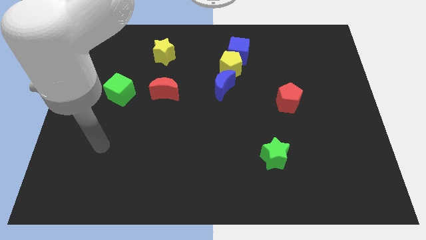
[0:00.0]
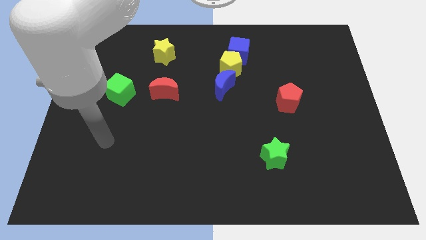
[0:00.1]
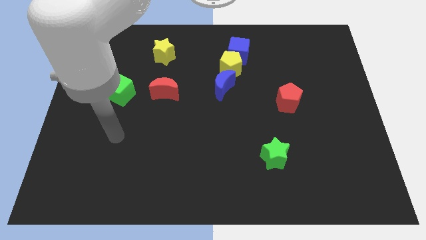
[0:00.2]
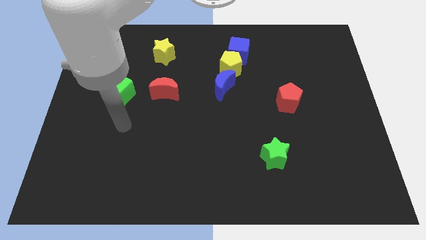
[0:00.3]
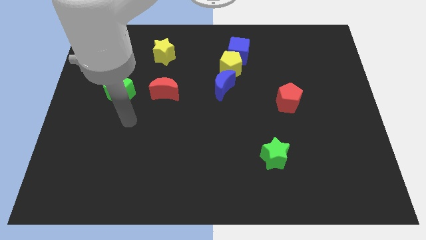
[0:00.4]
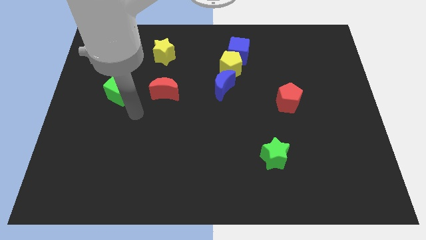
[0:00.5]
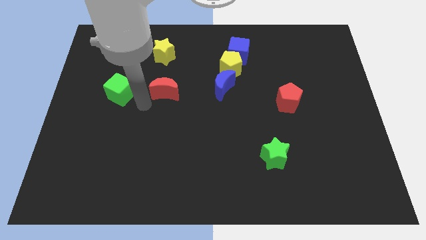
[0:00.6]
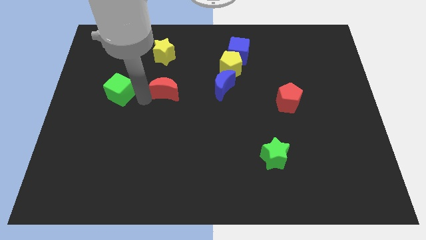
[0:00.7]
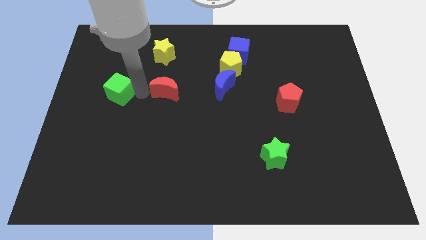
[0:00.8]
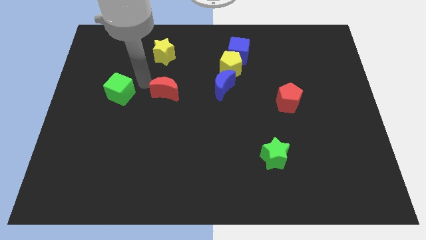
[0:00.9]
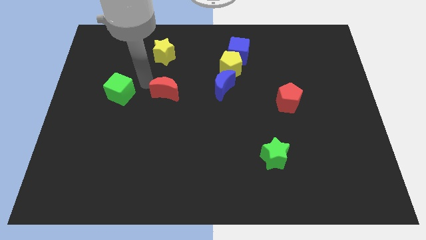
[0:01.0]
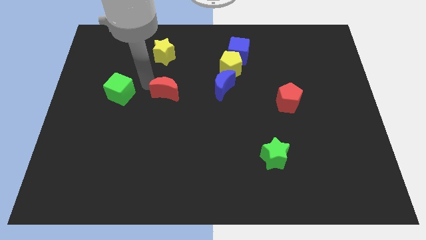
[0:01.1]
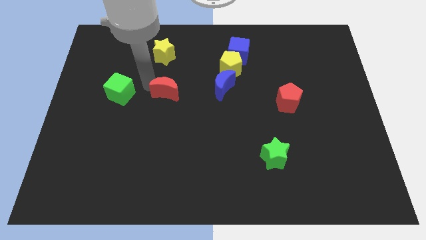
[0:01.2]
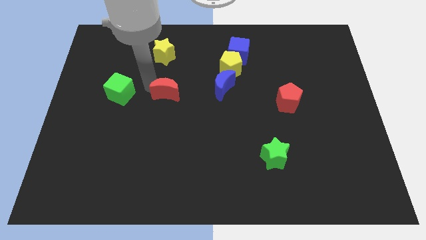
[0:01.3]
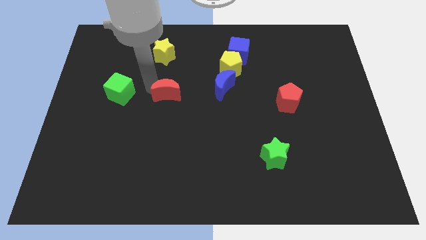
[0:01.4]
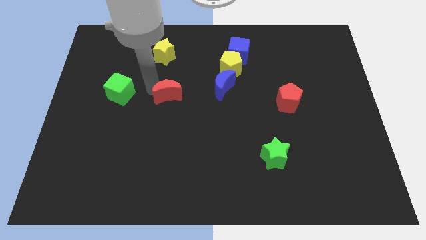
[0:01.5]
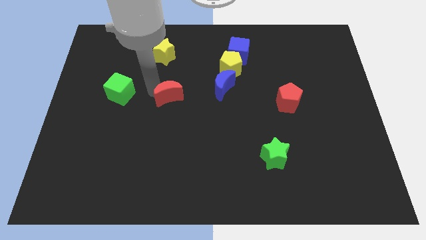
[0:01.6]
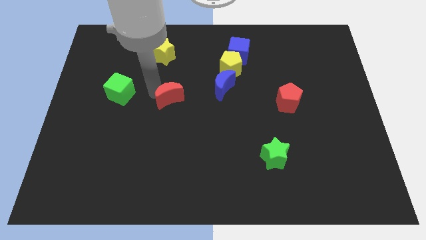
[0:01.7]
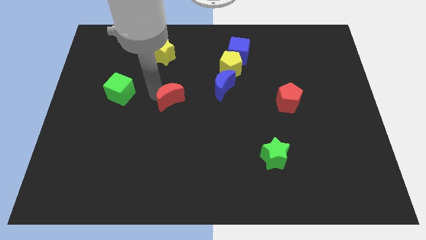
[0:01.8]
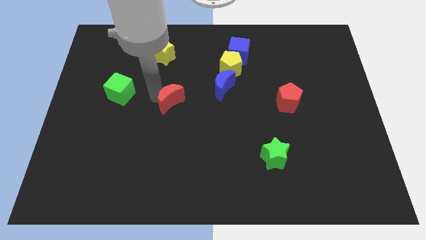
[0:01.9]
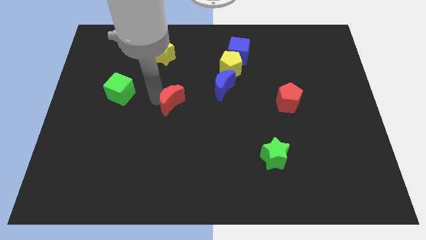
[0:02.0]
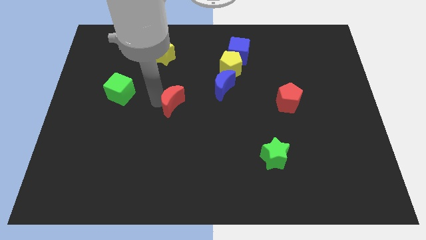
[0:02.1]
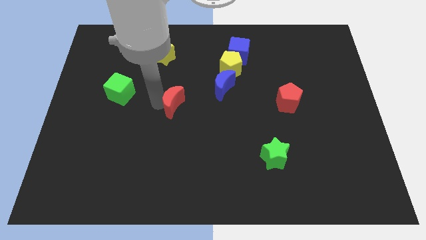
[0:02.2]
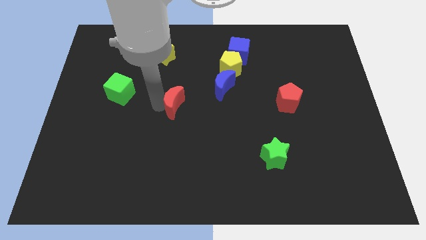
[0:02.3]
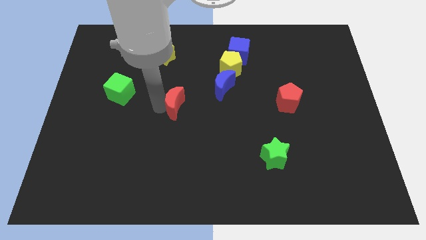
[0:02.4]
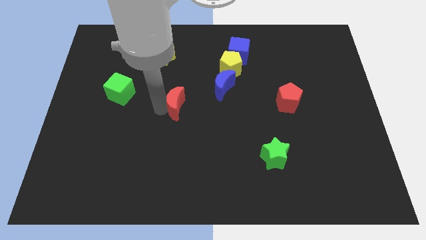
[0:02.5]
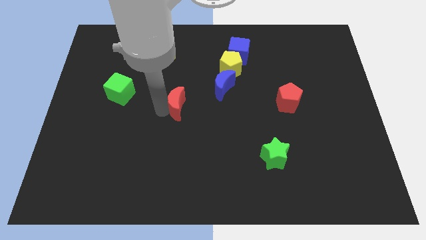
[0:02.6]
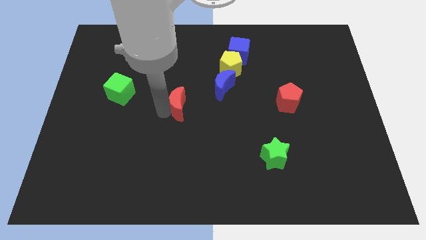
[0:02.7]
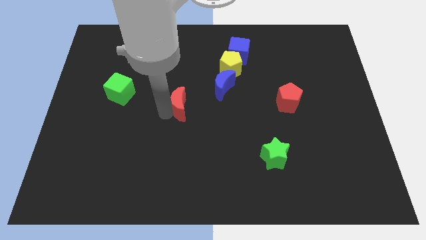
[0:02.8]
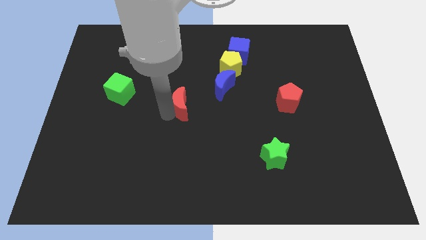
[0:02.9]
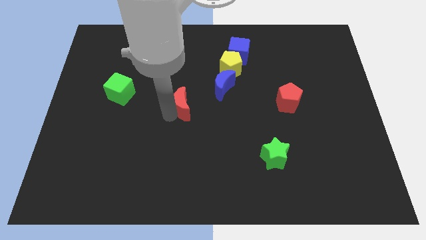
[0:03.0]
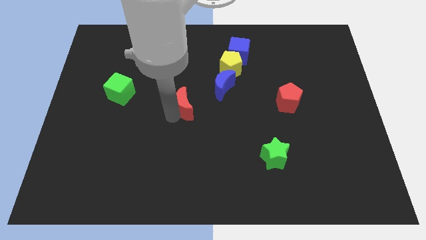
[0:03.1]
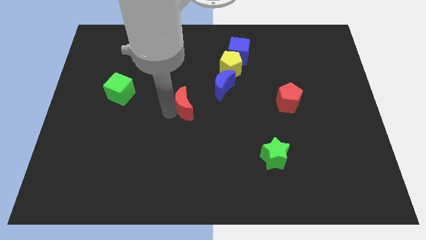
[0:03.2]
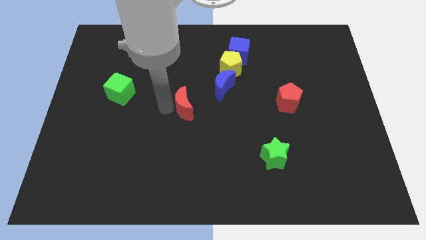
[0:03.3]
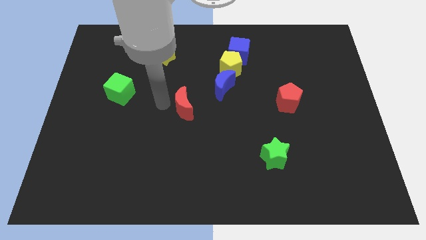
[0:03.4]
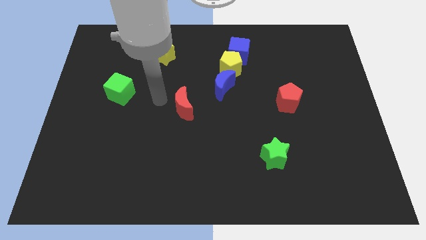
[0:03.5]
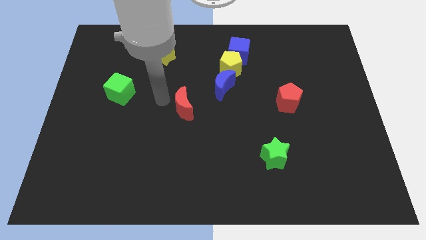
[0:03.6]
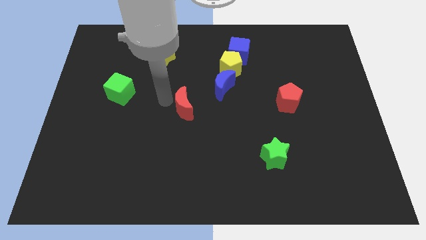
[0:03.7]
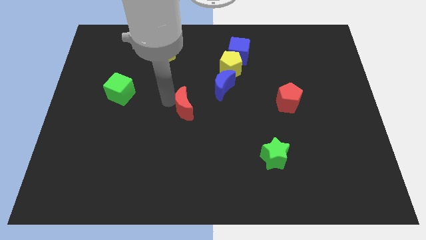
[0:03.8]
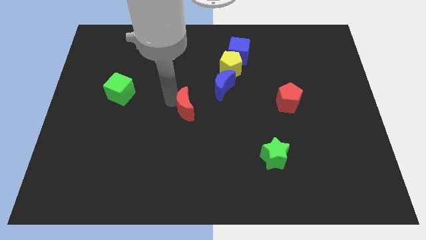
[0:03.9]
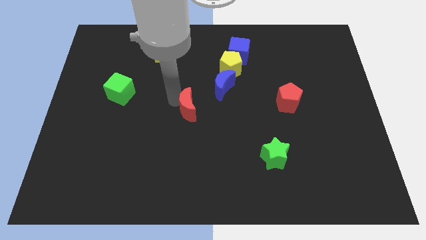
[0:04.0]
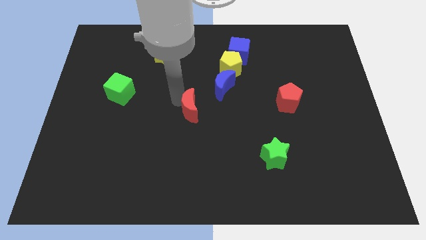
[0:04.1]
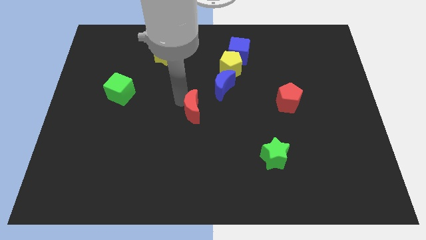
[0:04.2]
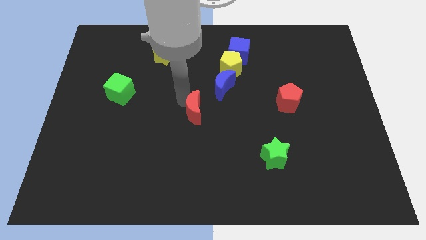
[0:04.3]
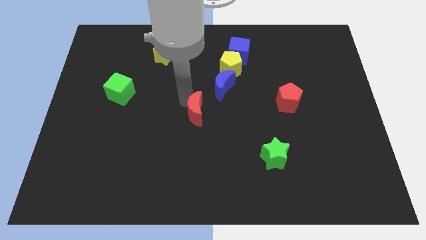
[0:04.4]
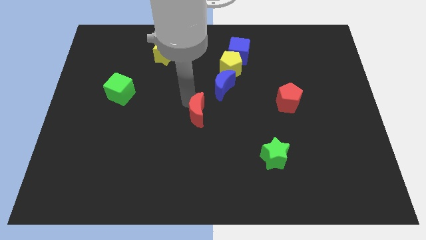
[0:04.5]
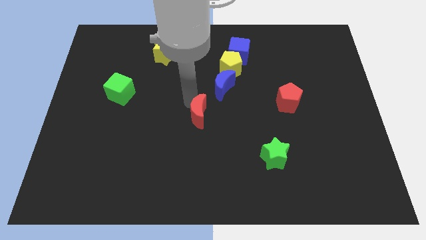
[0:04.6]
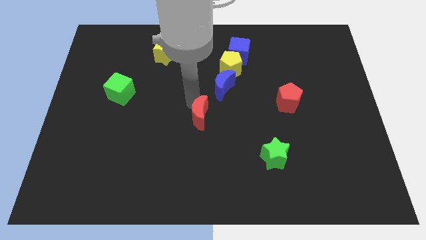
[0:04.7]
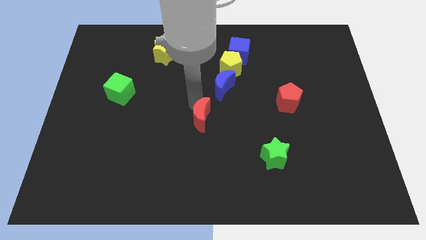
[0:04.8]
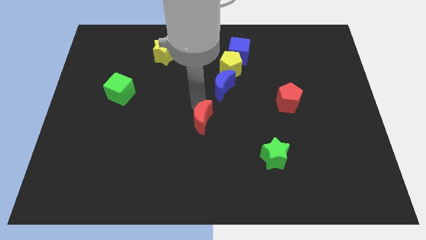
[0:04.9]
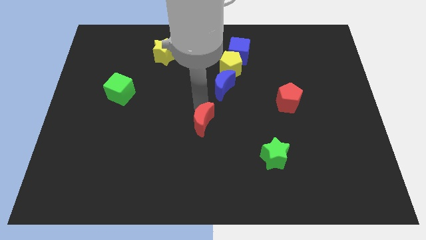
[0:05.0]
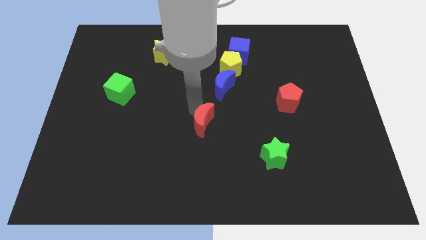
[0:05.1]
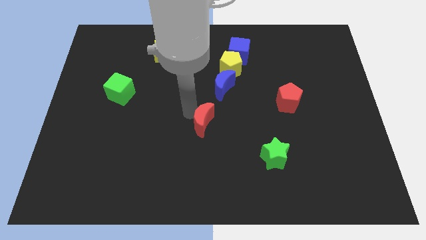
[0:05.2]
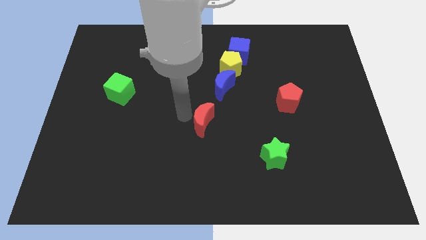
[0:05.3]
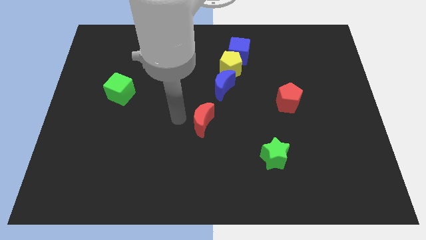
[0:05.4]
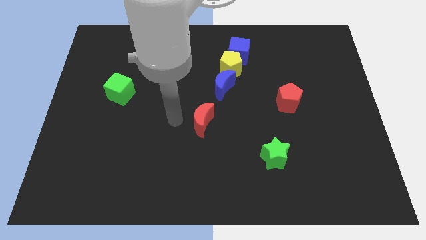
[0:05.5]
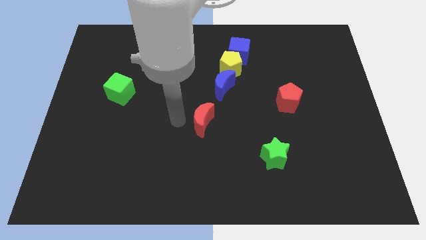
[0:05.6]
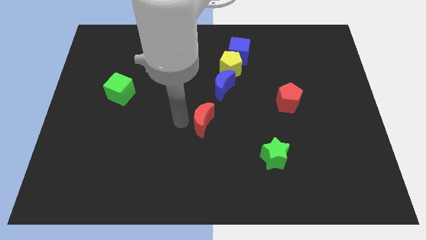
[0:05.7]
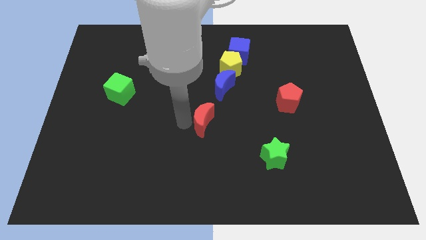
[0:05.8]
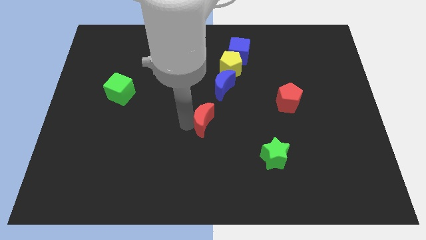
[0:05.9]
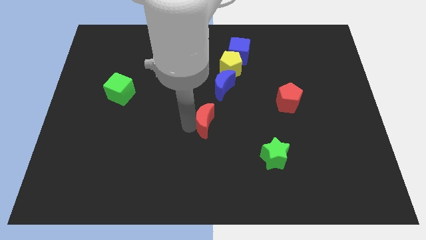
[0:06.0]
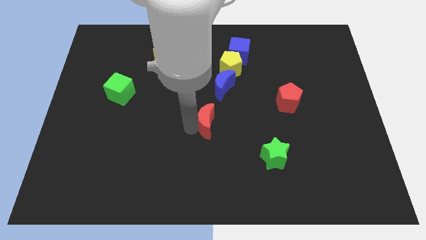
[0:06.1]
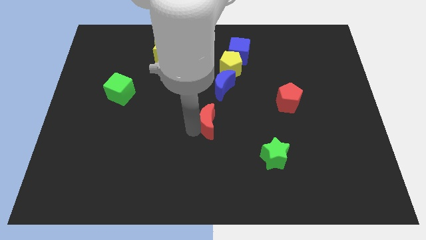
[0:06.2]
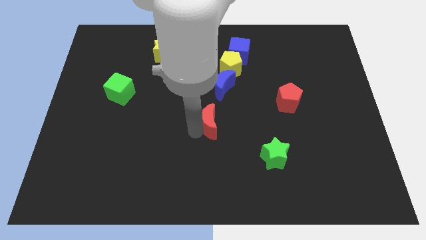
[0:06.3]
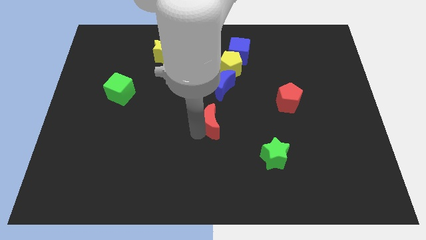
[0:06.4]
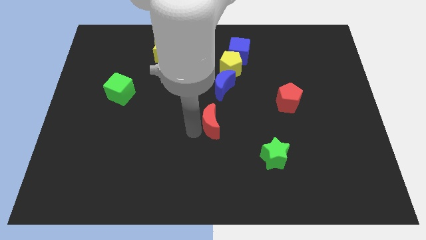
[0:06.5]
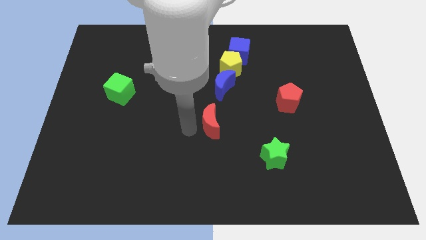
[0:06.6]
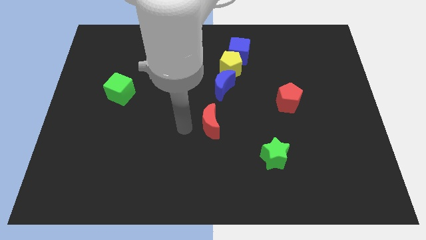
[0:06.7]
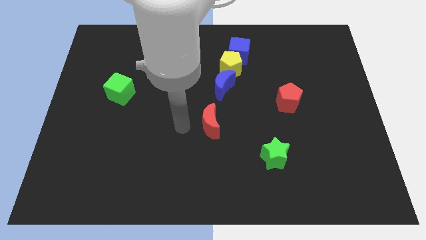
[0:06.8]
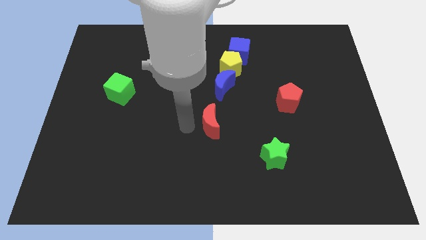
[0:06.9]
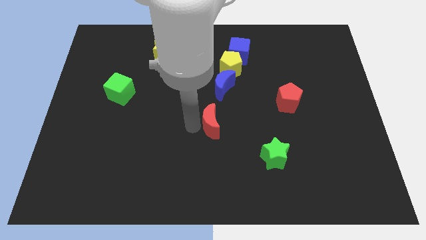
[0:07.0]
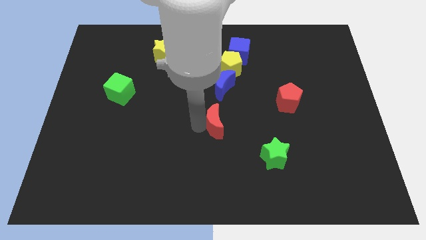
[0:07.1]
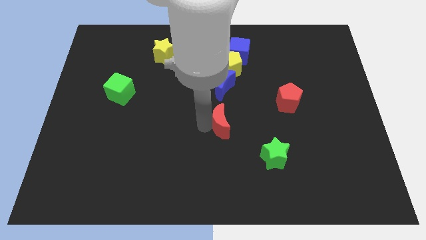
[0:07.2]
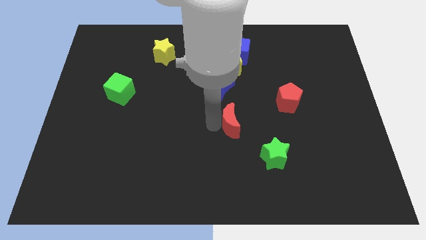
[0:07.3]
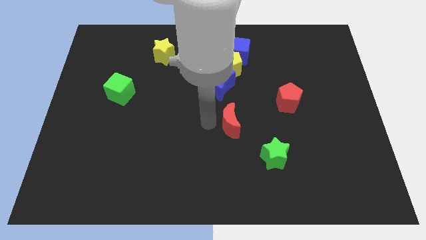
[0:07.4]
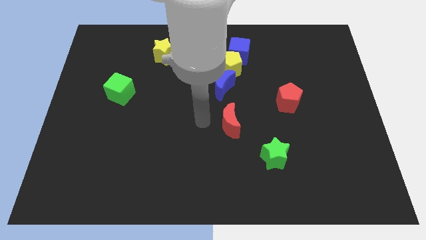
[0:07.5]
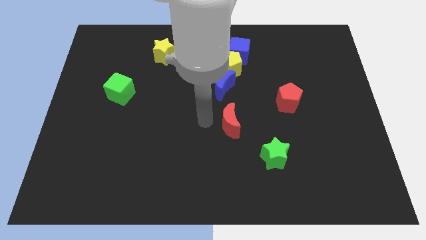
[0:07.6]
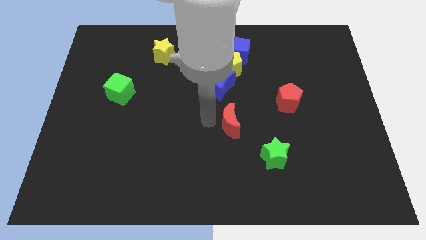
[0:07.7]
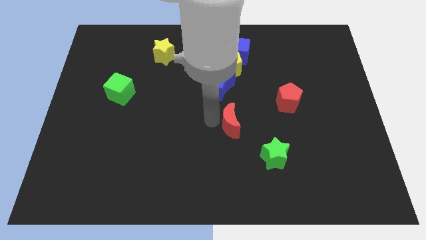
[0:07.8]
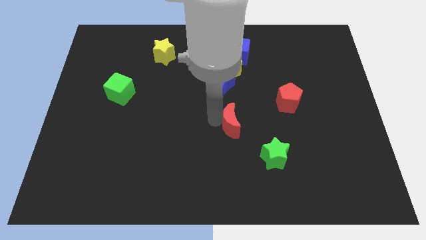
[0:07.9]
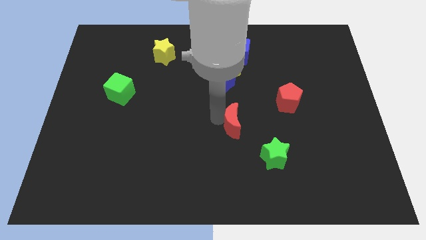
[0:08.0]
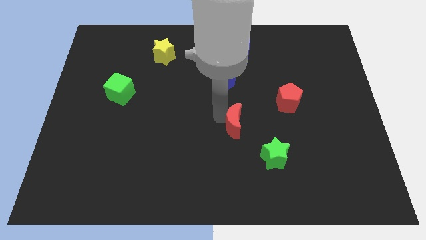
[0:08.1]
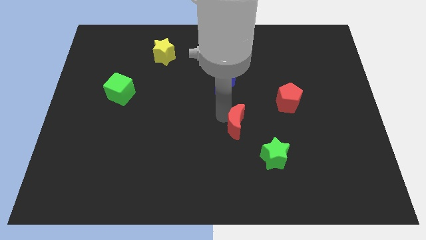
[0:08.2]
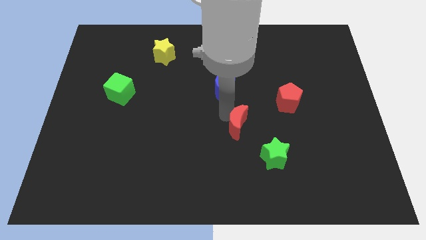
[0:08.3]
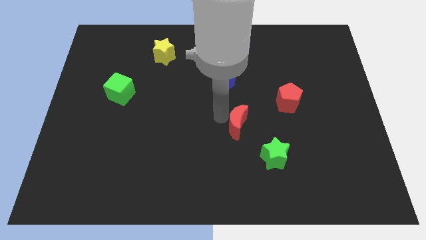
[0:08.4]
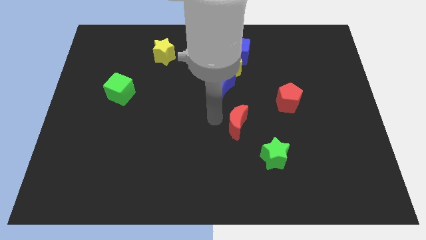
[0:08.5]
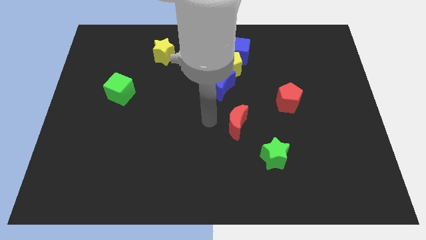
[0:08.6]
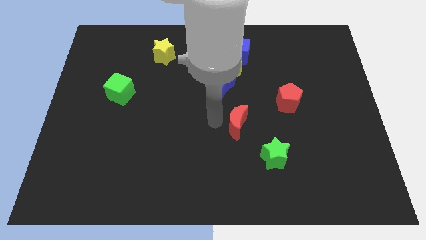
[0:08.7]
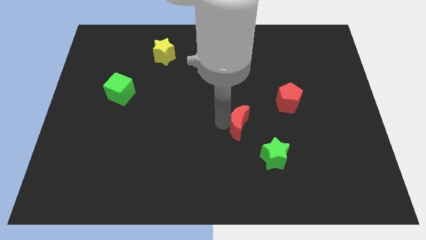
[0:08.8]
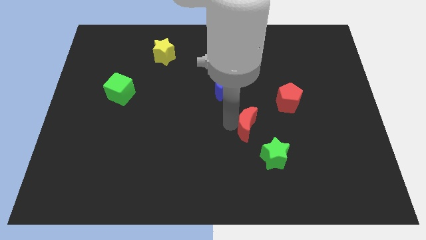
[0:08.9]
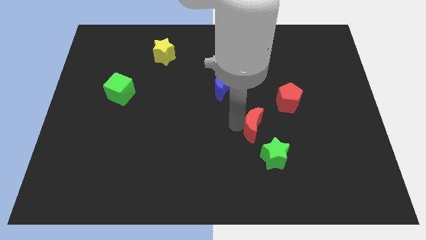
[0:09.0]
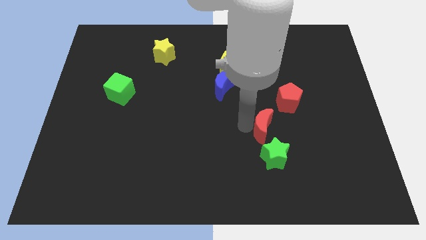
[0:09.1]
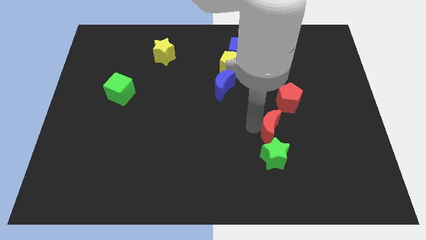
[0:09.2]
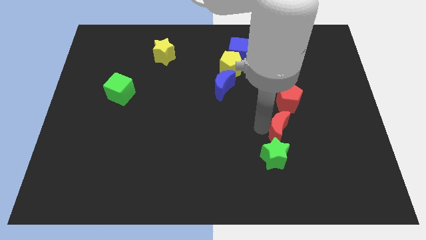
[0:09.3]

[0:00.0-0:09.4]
move the red moon diagonally up and to the right of the green star
